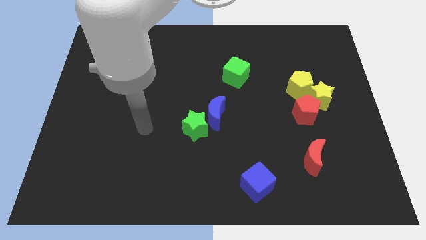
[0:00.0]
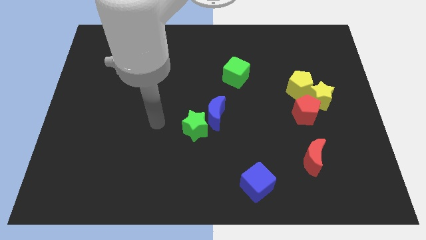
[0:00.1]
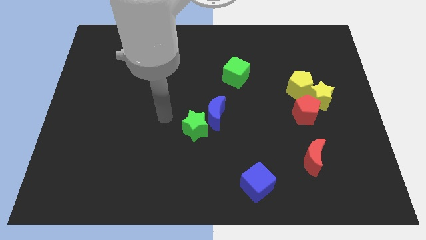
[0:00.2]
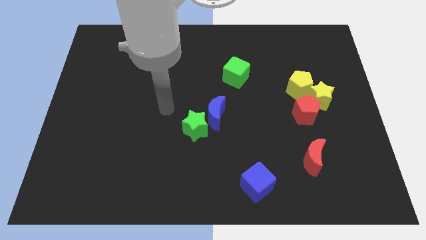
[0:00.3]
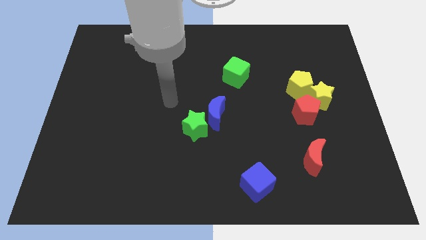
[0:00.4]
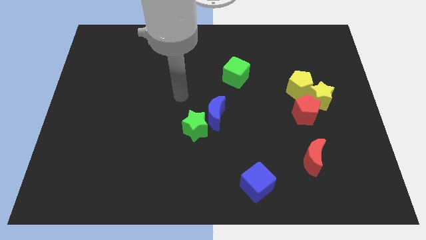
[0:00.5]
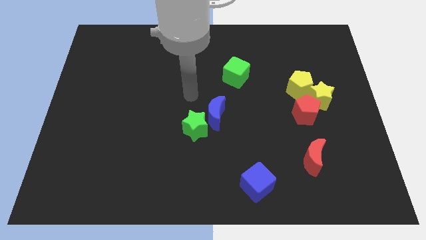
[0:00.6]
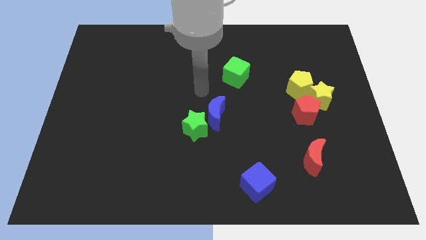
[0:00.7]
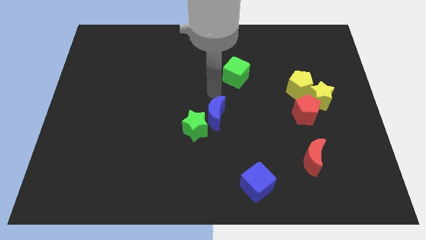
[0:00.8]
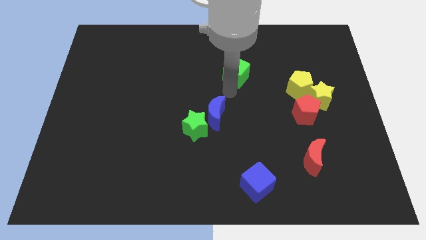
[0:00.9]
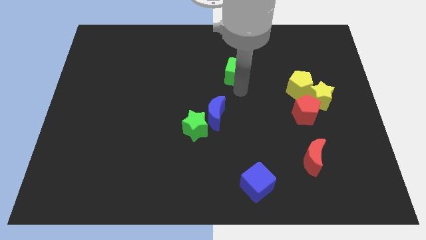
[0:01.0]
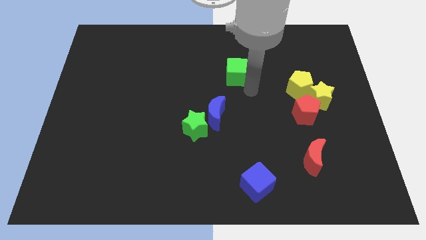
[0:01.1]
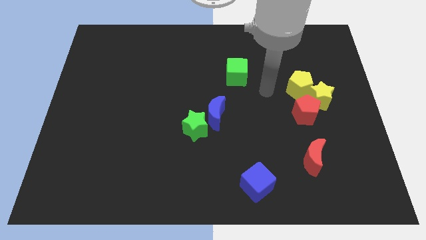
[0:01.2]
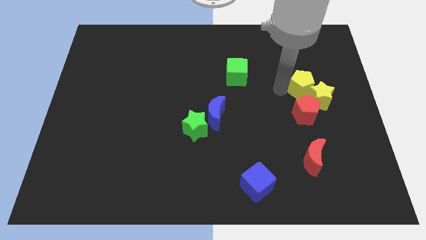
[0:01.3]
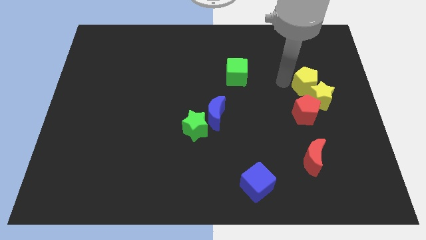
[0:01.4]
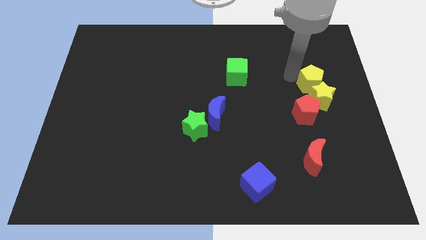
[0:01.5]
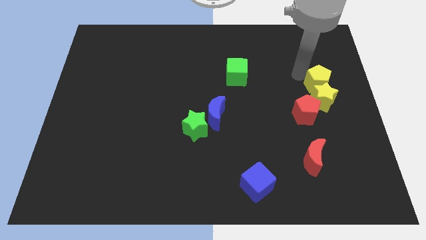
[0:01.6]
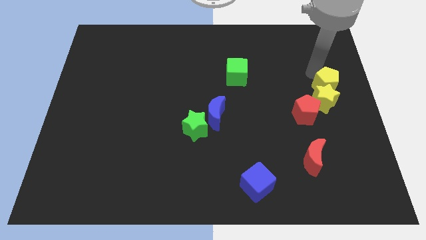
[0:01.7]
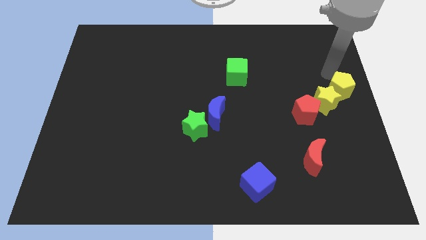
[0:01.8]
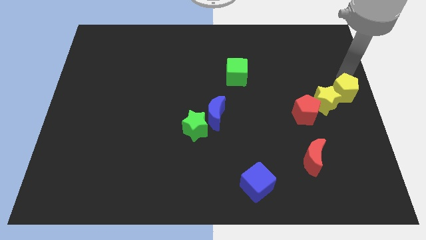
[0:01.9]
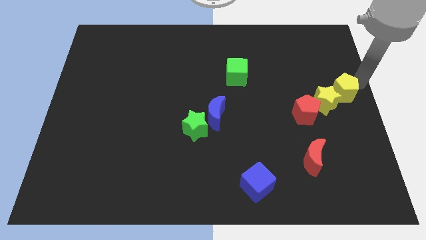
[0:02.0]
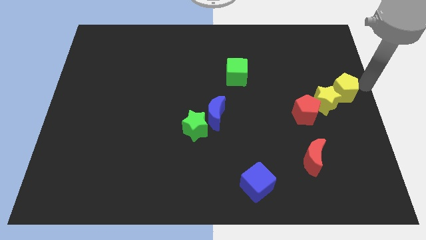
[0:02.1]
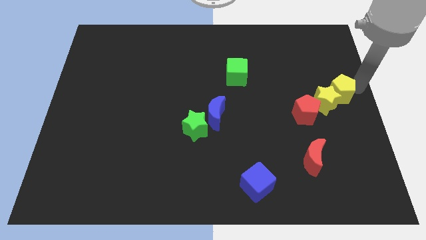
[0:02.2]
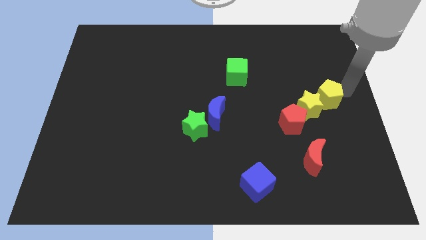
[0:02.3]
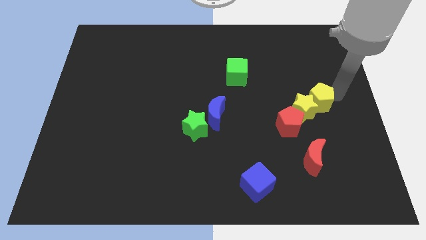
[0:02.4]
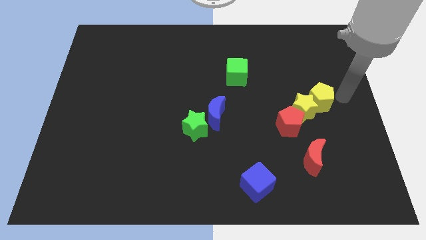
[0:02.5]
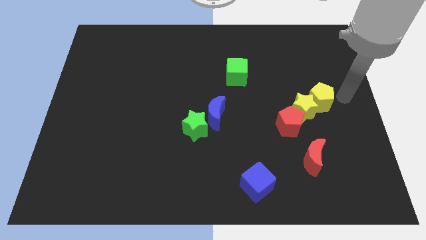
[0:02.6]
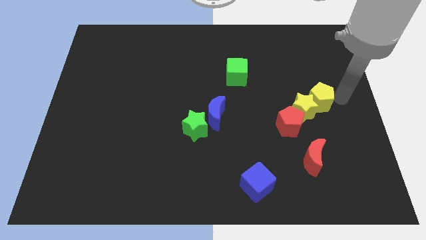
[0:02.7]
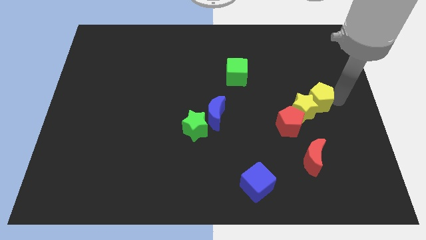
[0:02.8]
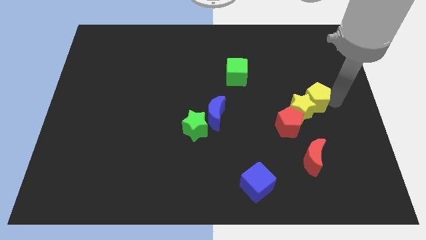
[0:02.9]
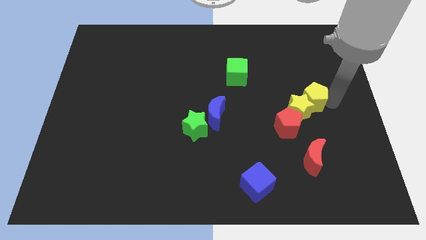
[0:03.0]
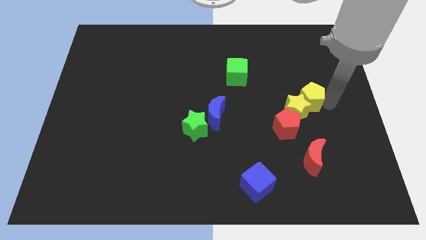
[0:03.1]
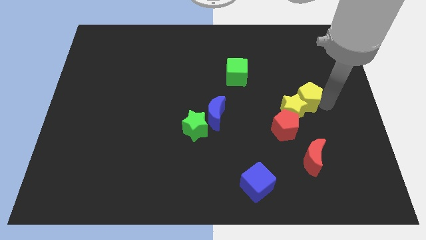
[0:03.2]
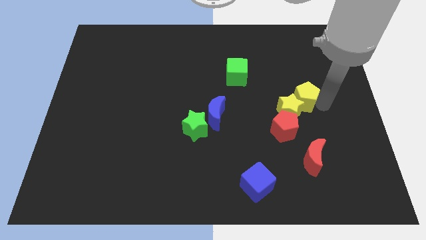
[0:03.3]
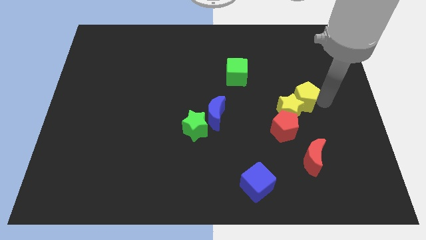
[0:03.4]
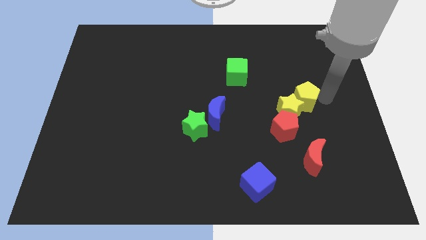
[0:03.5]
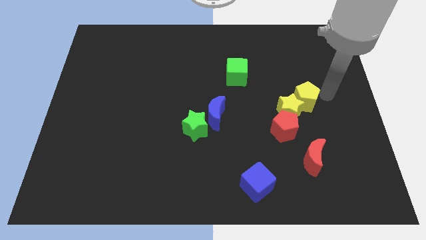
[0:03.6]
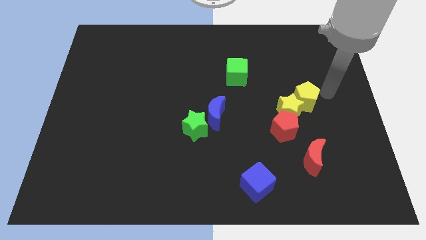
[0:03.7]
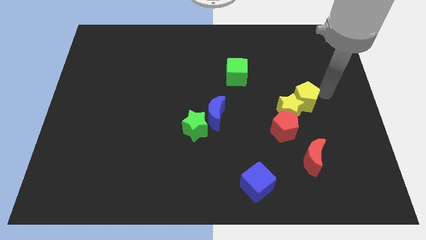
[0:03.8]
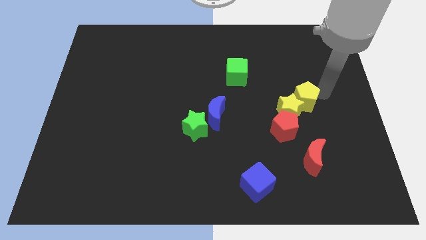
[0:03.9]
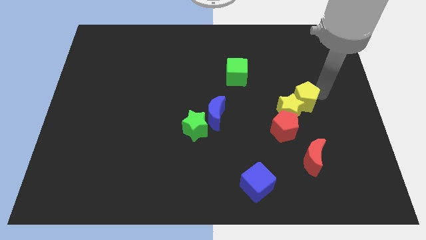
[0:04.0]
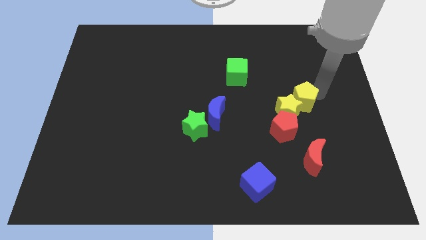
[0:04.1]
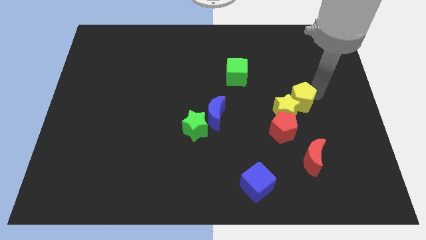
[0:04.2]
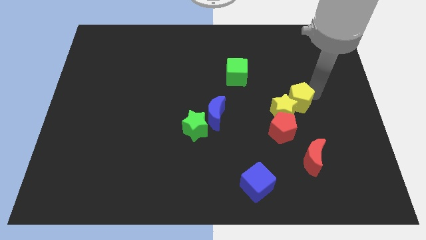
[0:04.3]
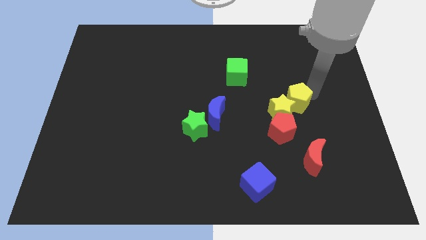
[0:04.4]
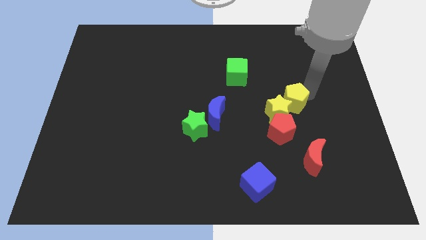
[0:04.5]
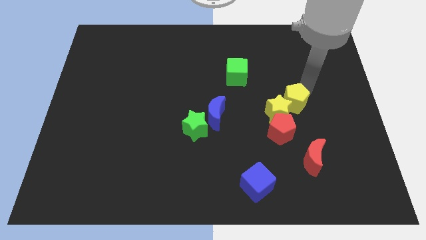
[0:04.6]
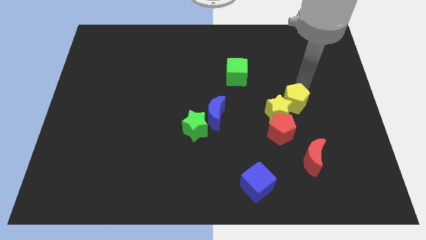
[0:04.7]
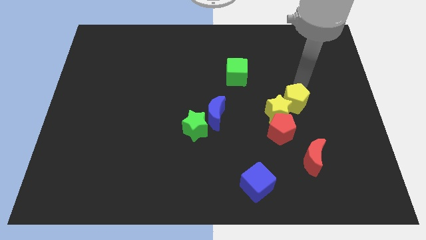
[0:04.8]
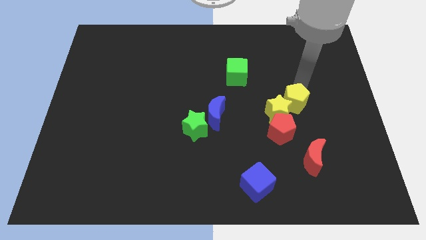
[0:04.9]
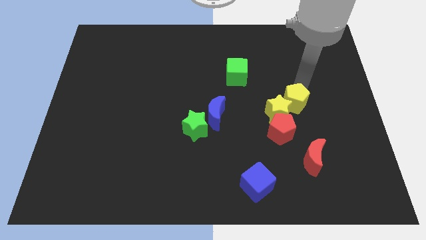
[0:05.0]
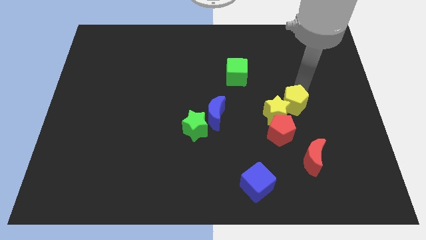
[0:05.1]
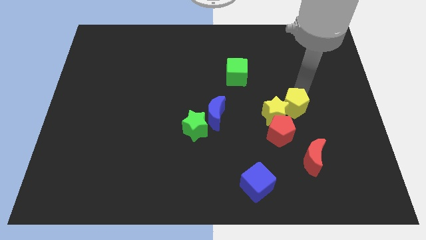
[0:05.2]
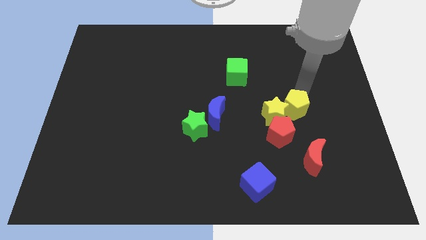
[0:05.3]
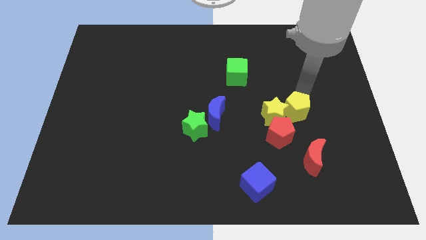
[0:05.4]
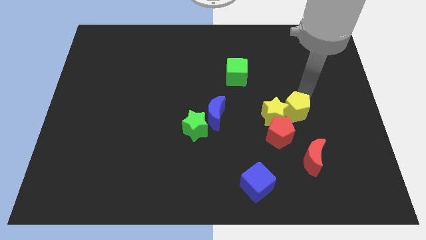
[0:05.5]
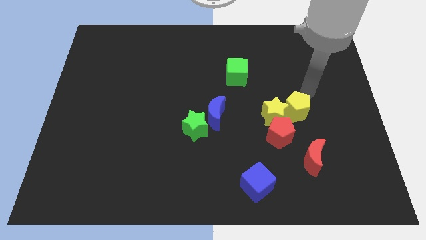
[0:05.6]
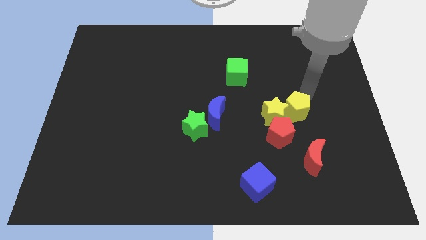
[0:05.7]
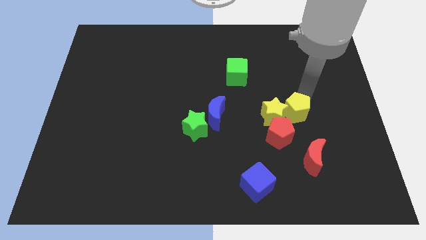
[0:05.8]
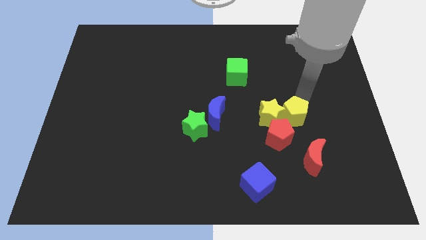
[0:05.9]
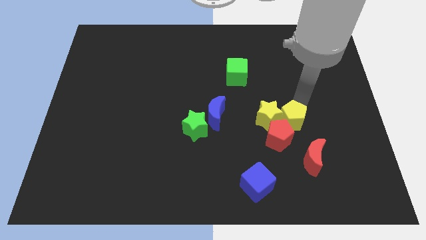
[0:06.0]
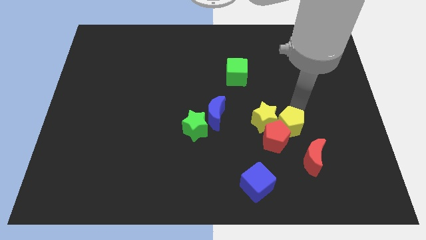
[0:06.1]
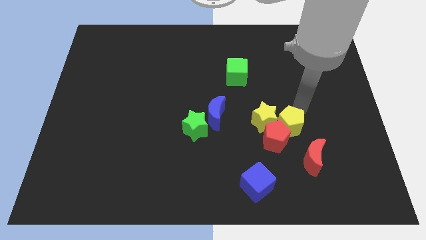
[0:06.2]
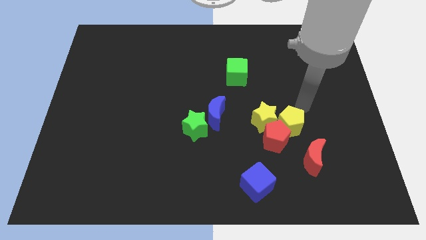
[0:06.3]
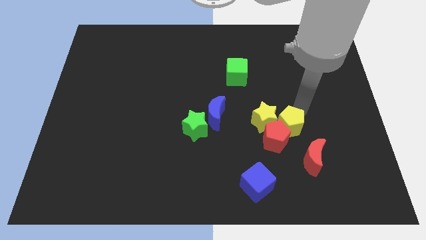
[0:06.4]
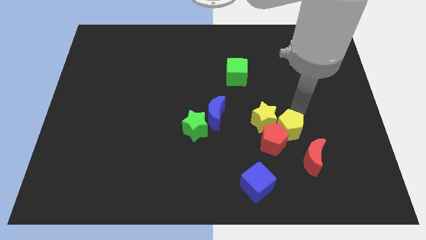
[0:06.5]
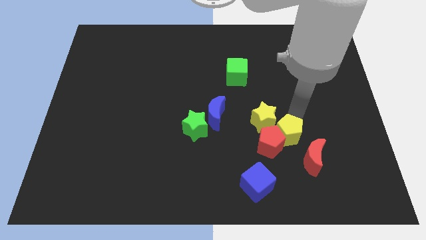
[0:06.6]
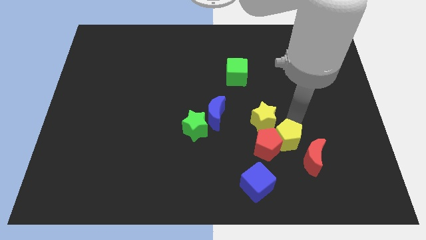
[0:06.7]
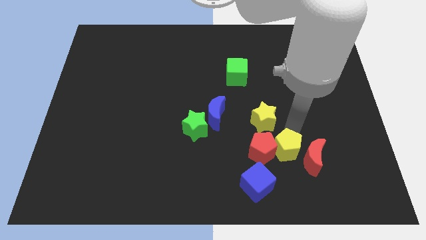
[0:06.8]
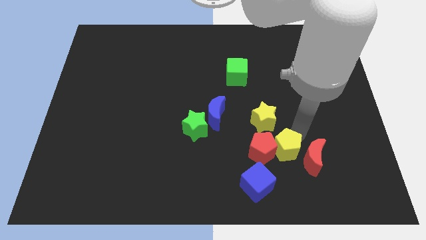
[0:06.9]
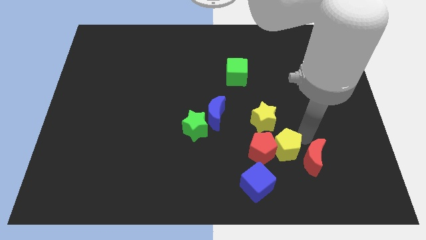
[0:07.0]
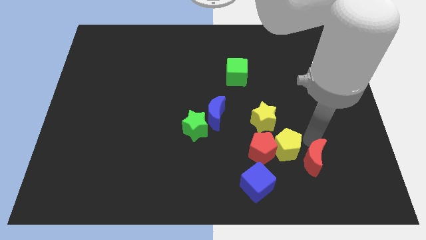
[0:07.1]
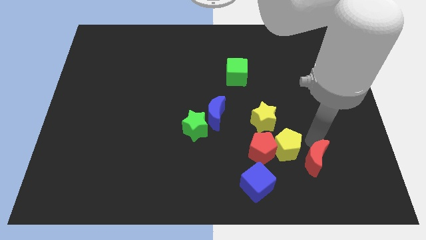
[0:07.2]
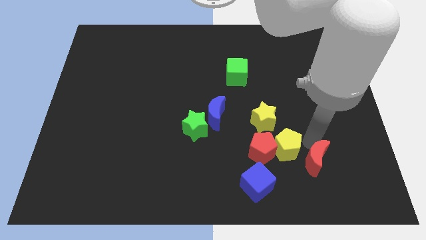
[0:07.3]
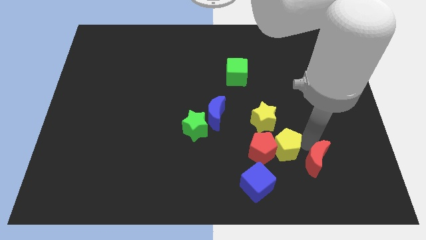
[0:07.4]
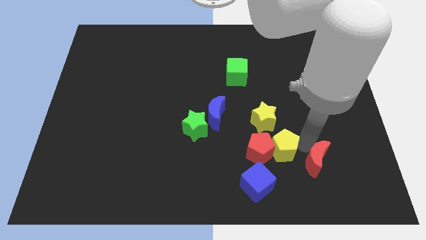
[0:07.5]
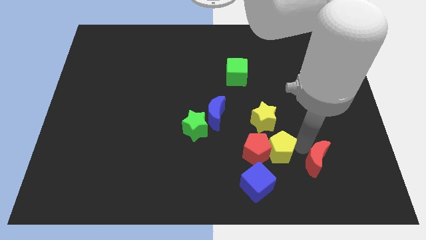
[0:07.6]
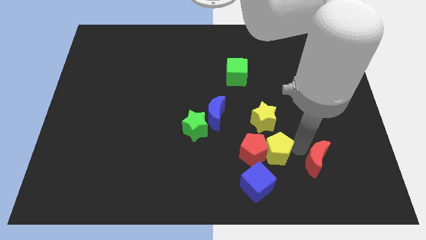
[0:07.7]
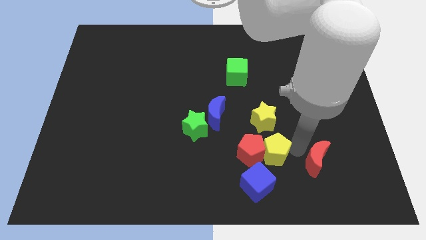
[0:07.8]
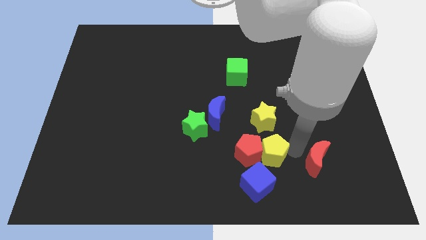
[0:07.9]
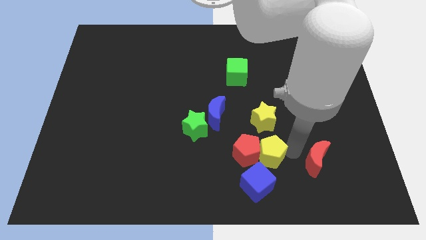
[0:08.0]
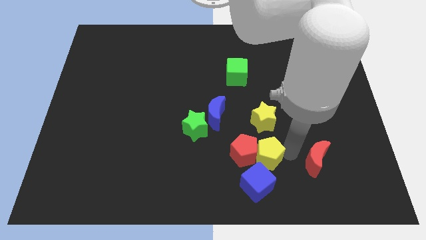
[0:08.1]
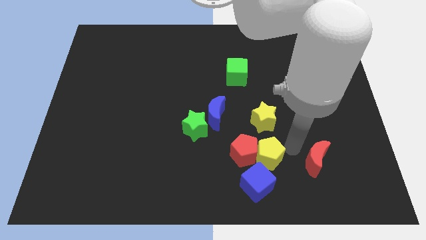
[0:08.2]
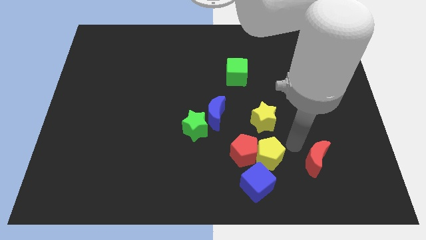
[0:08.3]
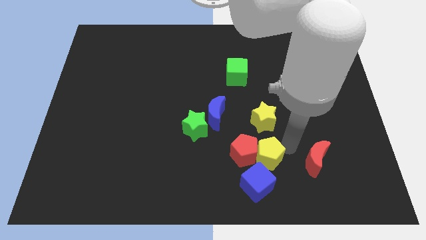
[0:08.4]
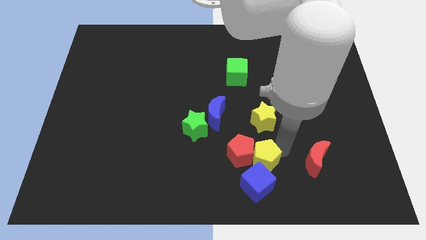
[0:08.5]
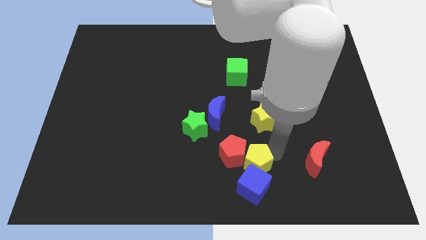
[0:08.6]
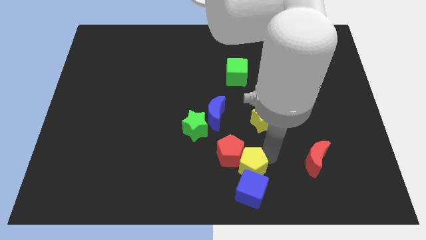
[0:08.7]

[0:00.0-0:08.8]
slide the yellow pentagon to the bottom
